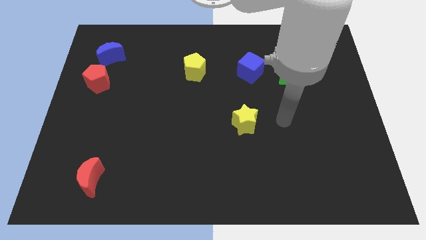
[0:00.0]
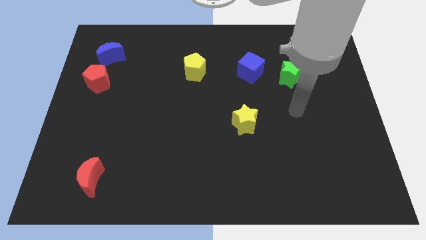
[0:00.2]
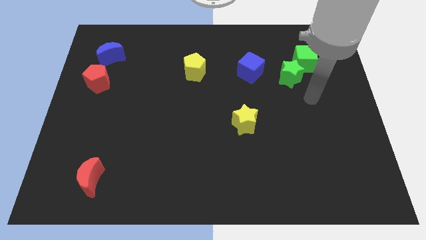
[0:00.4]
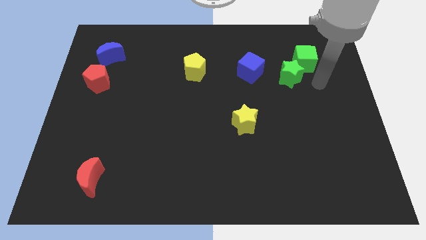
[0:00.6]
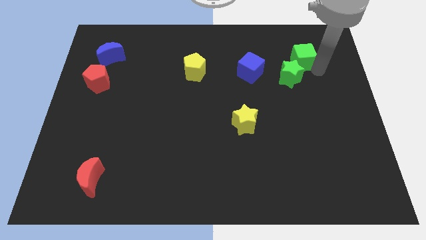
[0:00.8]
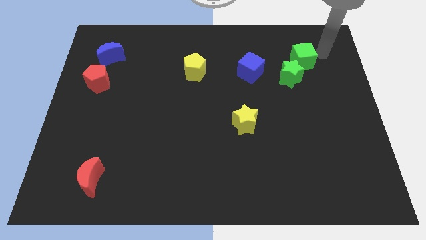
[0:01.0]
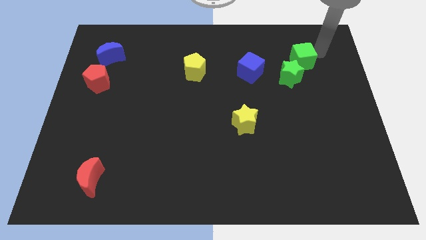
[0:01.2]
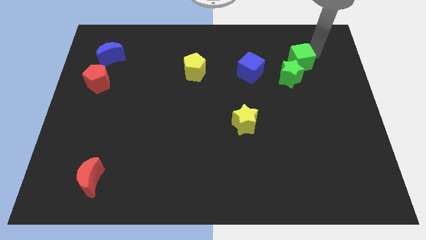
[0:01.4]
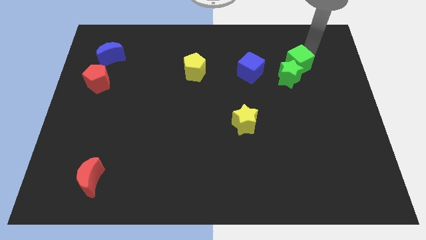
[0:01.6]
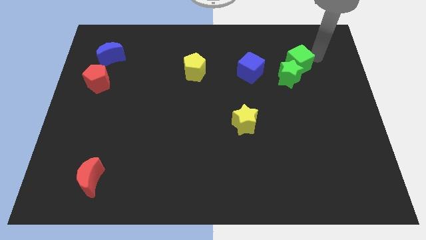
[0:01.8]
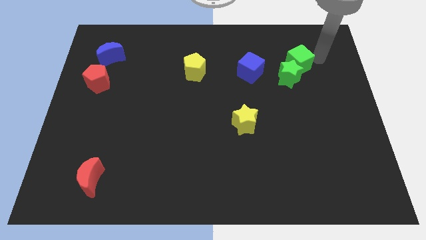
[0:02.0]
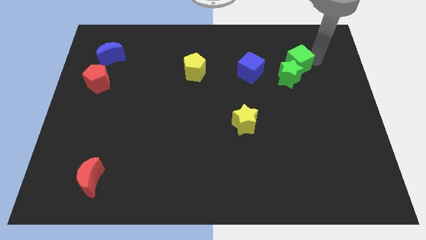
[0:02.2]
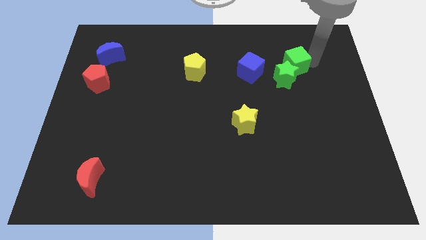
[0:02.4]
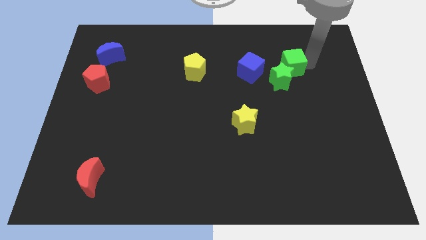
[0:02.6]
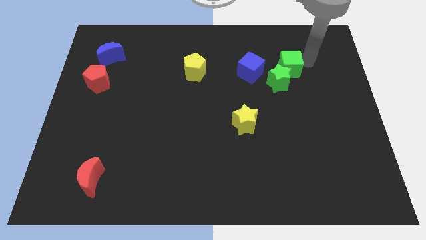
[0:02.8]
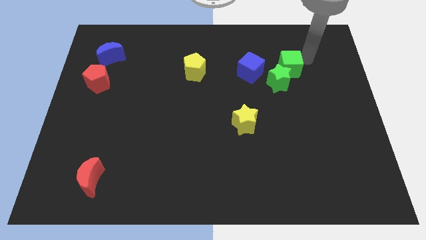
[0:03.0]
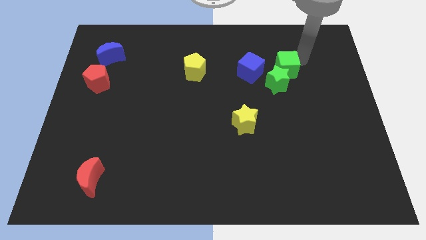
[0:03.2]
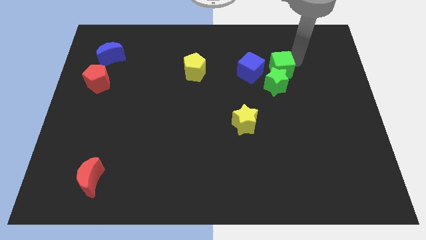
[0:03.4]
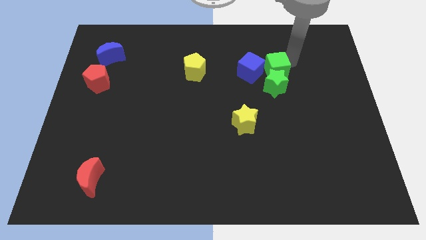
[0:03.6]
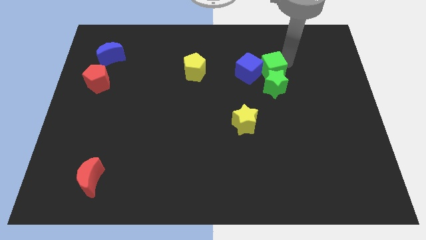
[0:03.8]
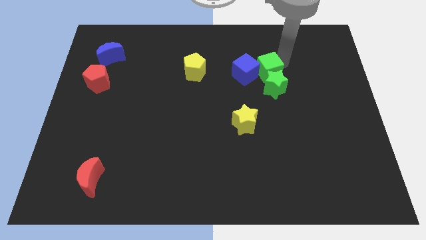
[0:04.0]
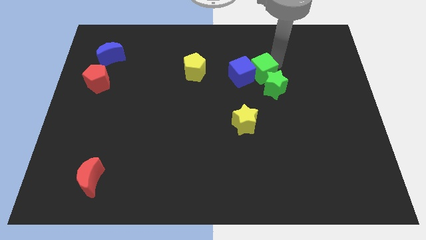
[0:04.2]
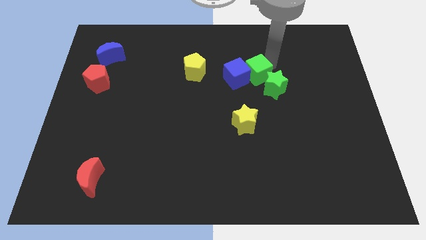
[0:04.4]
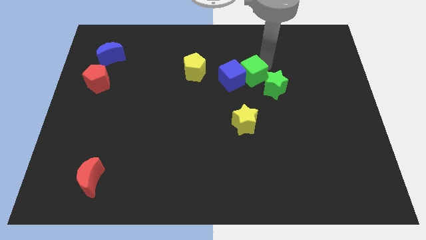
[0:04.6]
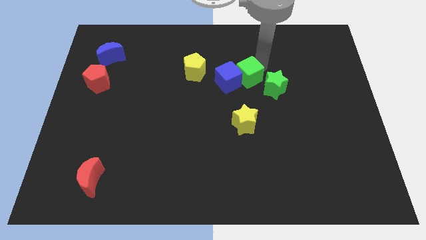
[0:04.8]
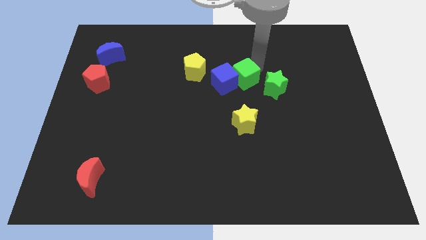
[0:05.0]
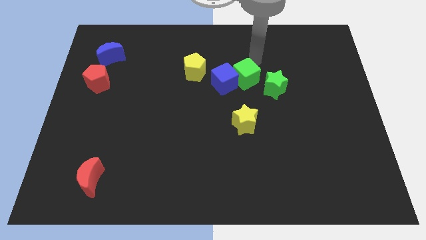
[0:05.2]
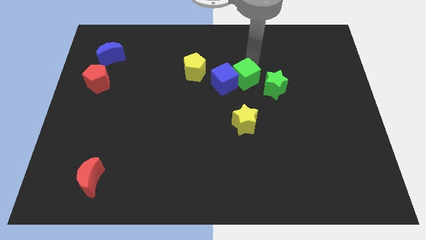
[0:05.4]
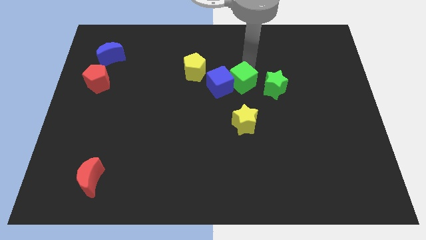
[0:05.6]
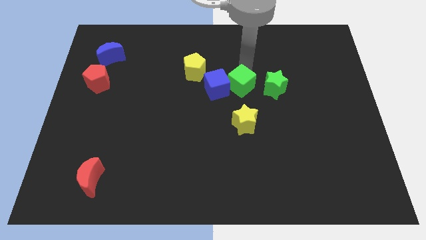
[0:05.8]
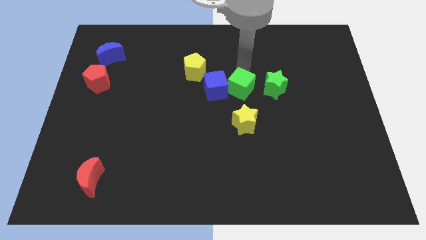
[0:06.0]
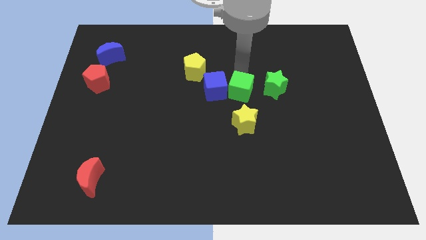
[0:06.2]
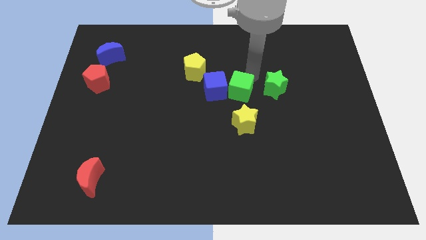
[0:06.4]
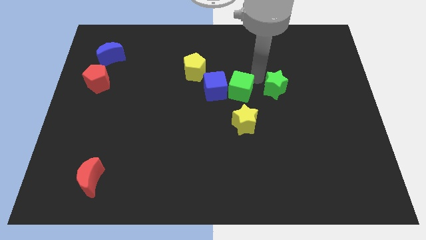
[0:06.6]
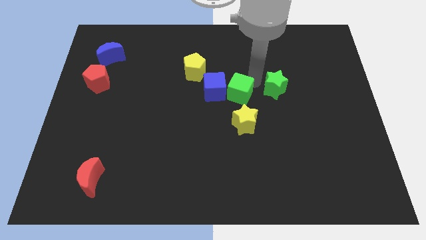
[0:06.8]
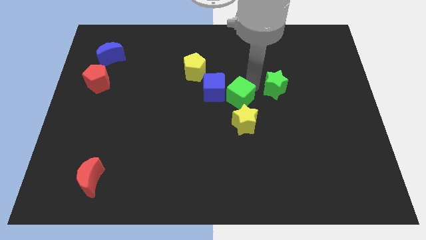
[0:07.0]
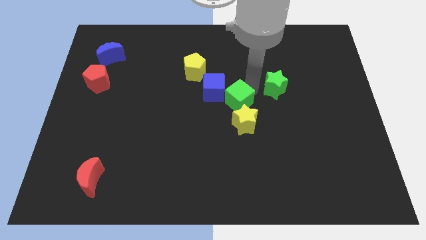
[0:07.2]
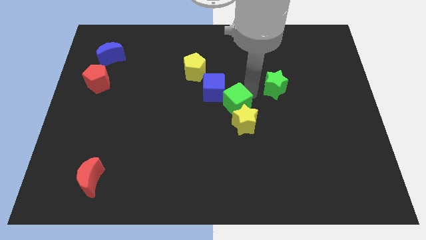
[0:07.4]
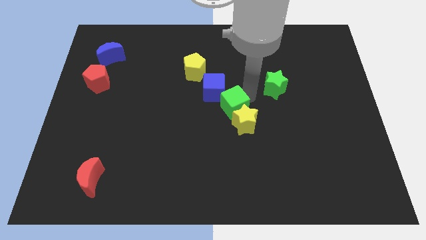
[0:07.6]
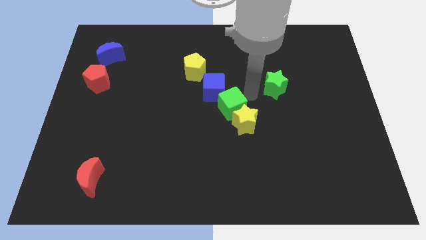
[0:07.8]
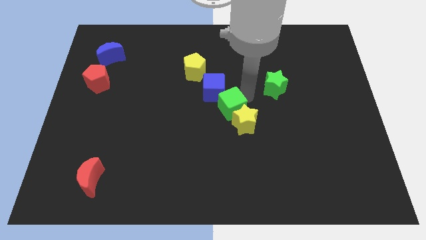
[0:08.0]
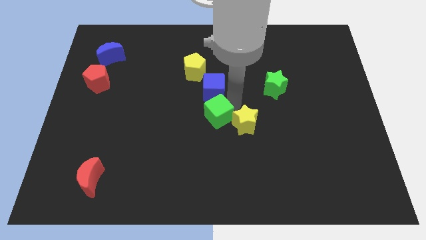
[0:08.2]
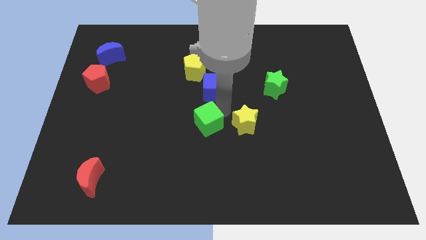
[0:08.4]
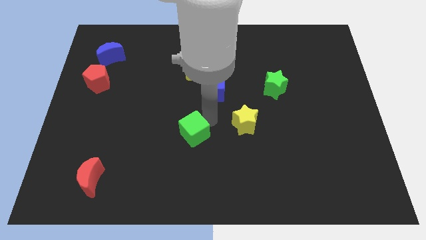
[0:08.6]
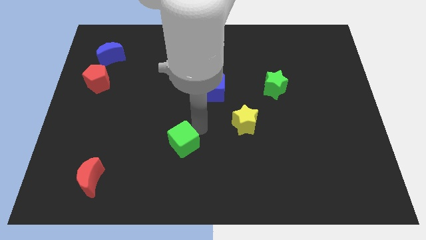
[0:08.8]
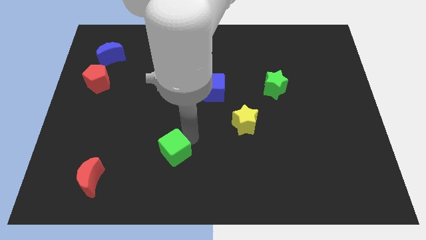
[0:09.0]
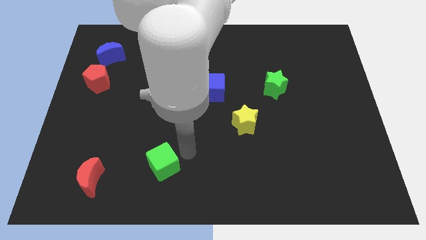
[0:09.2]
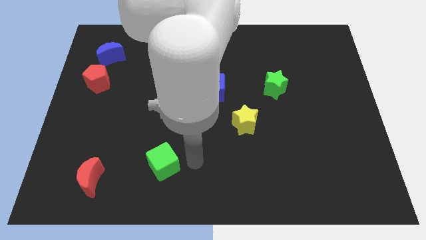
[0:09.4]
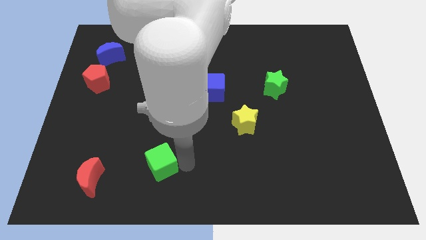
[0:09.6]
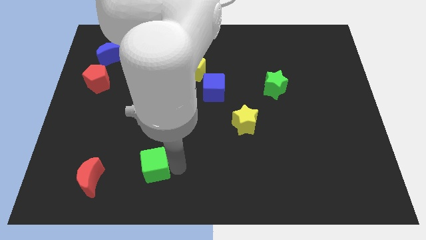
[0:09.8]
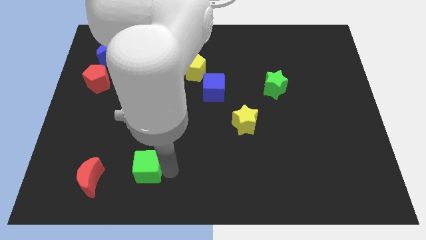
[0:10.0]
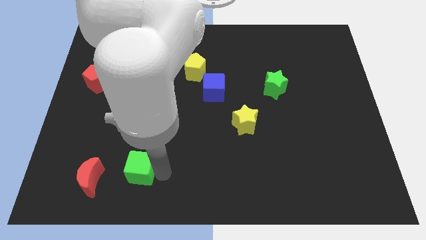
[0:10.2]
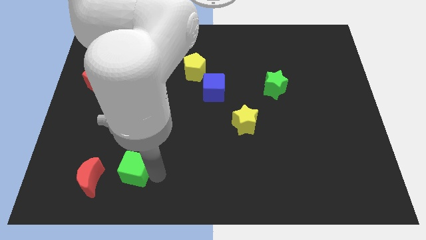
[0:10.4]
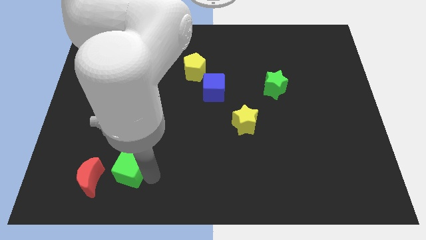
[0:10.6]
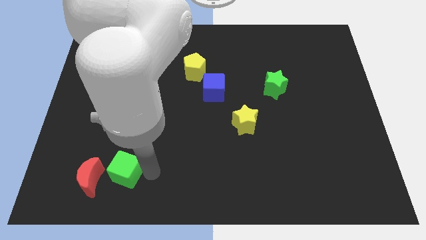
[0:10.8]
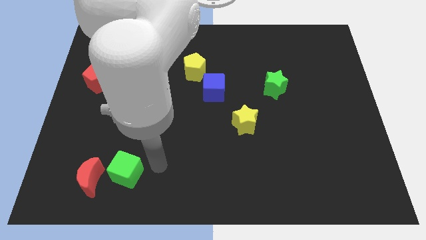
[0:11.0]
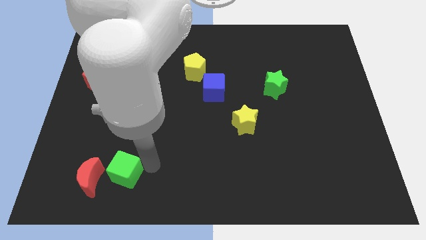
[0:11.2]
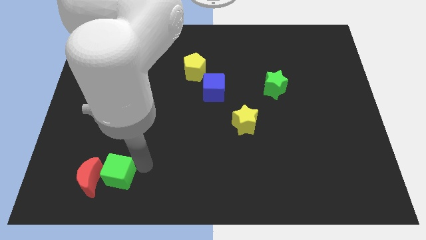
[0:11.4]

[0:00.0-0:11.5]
put the green cube close to the red moon
